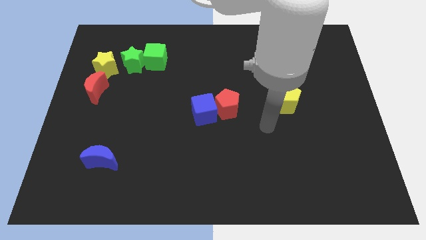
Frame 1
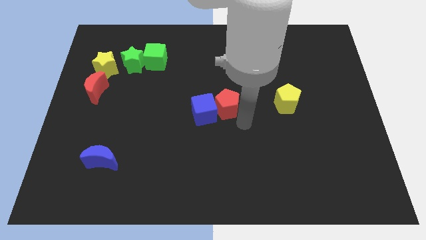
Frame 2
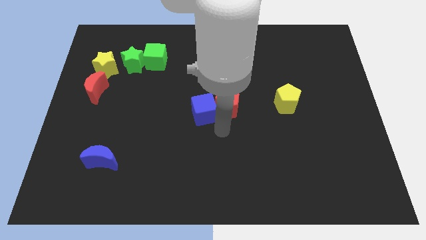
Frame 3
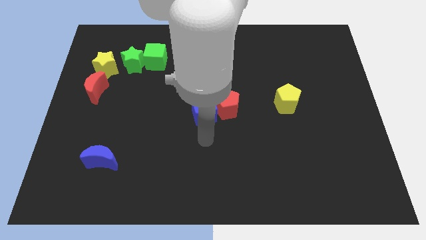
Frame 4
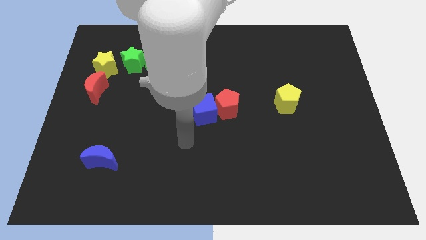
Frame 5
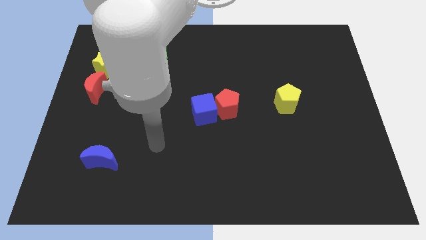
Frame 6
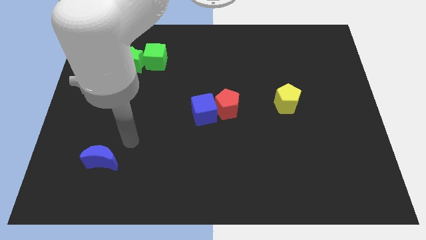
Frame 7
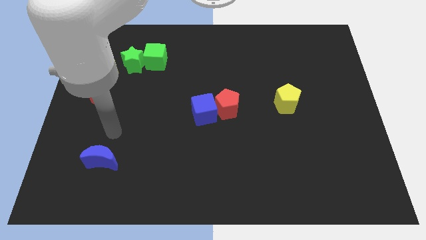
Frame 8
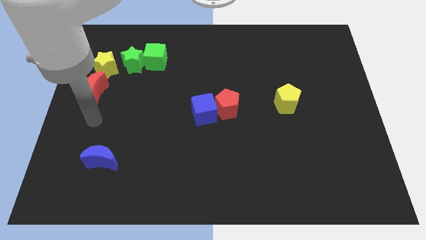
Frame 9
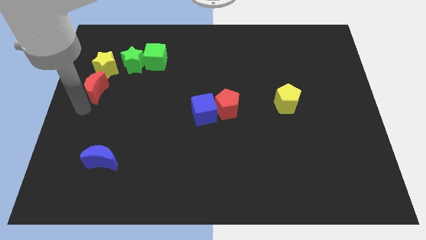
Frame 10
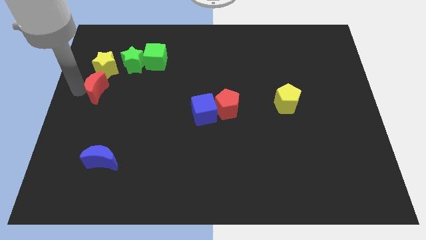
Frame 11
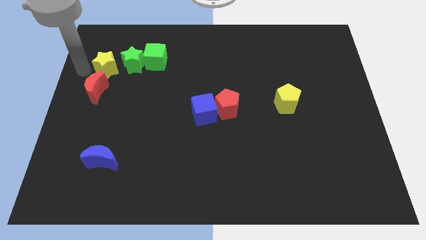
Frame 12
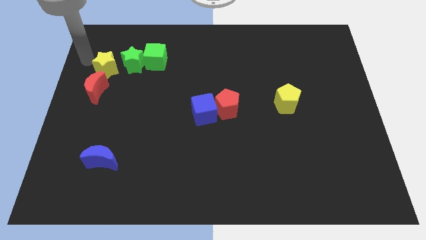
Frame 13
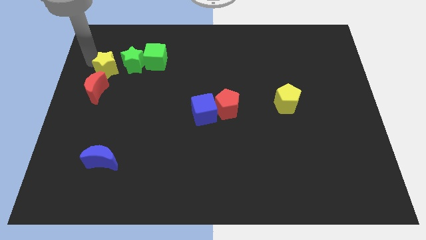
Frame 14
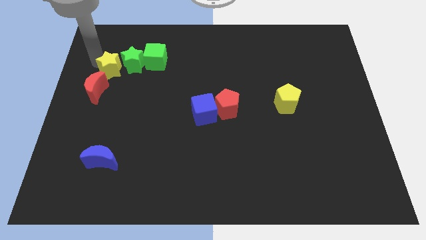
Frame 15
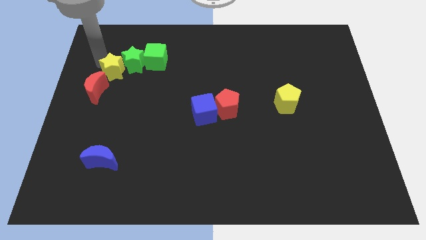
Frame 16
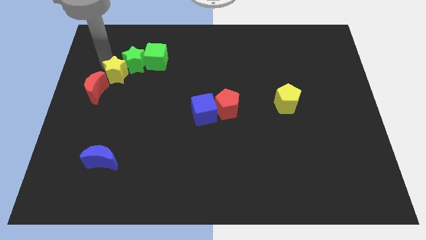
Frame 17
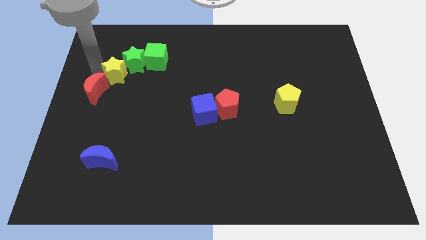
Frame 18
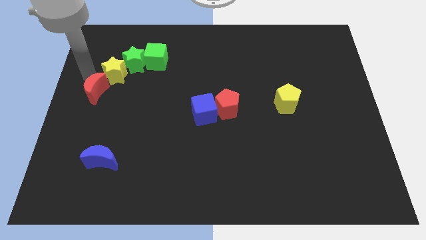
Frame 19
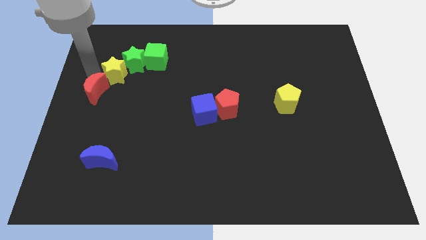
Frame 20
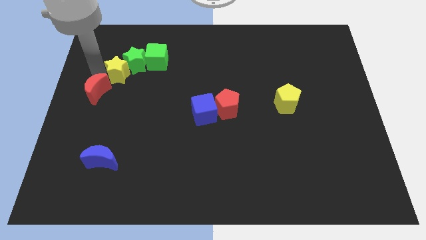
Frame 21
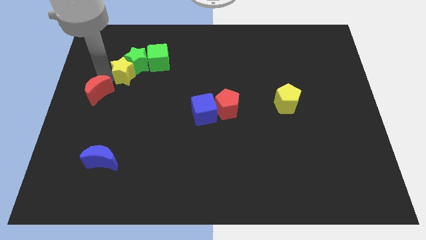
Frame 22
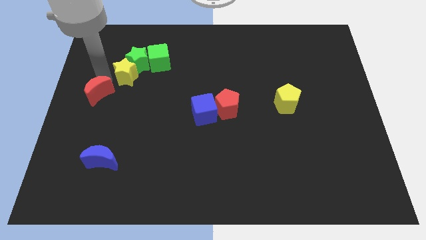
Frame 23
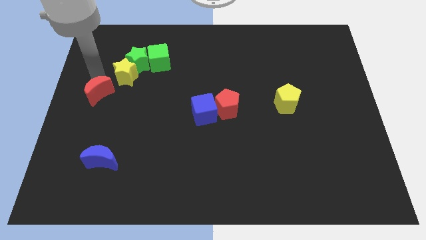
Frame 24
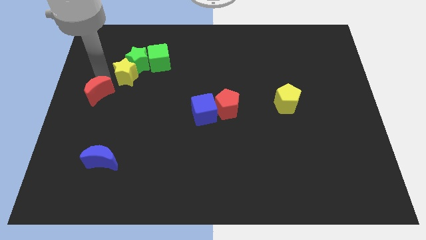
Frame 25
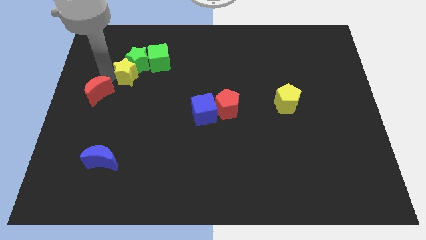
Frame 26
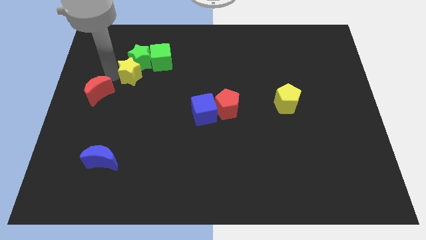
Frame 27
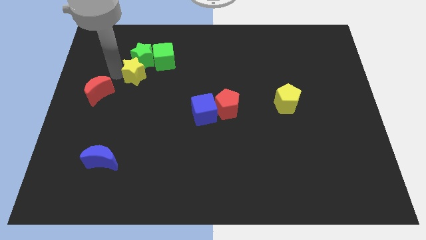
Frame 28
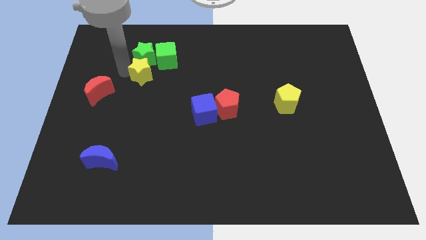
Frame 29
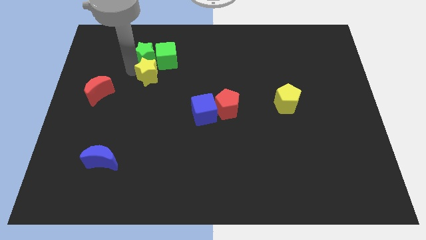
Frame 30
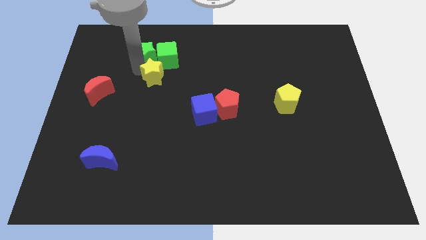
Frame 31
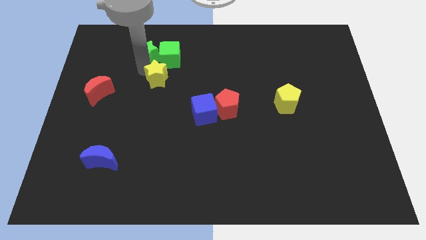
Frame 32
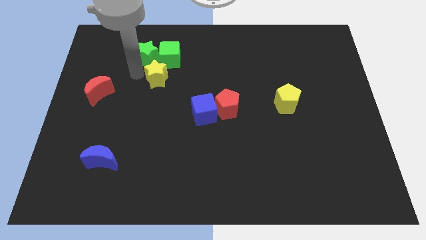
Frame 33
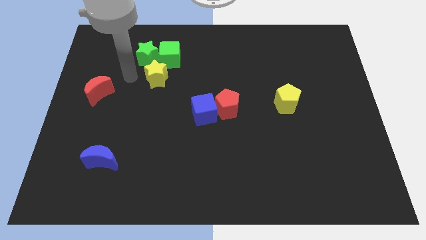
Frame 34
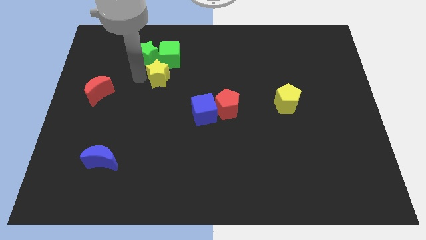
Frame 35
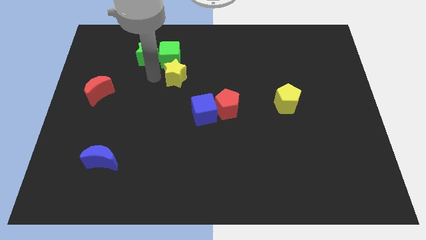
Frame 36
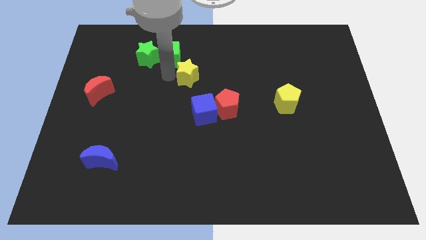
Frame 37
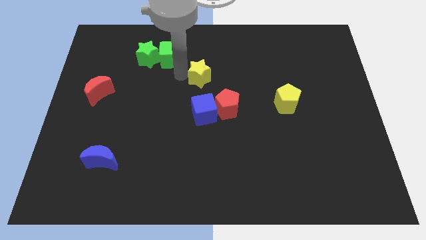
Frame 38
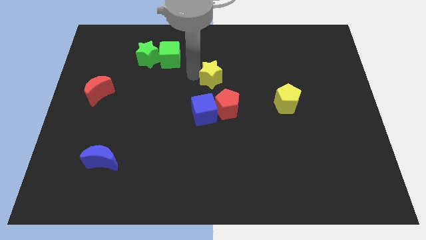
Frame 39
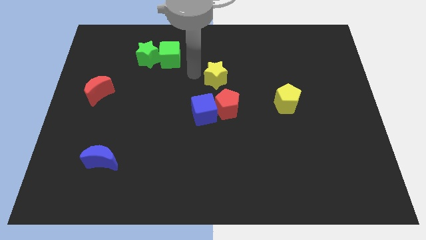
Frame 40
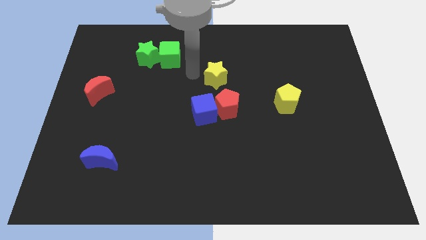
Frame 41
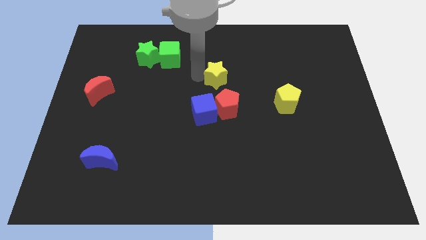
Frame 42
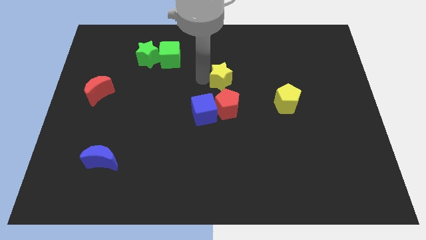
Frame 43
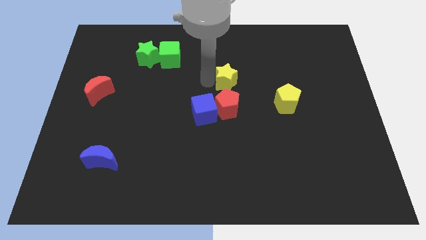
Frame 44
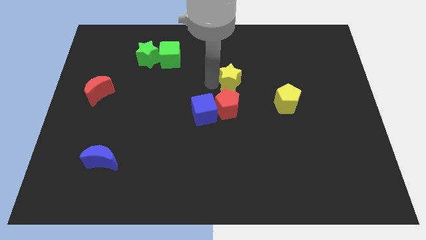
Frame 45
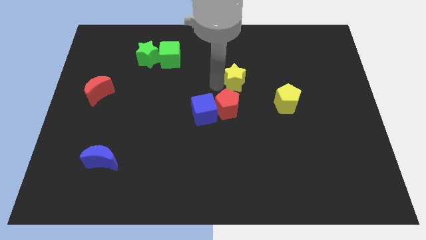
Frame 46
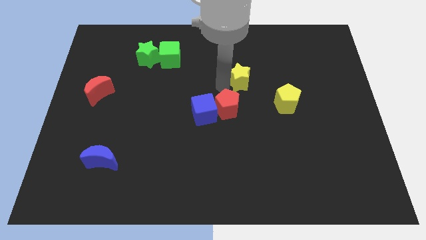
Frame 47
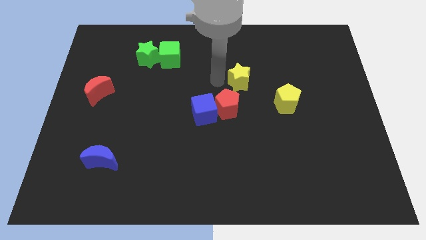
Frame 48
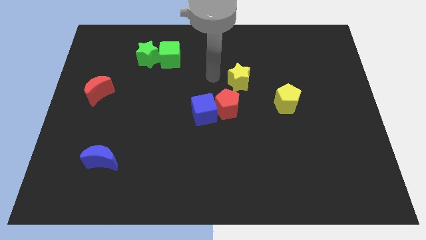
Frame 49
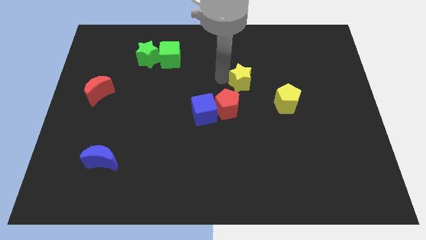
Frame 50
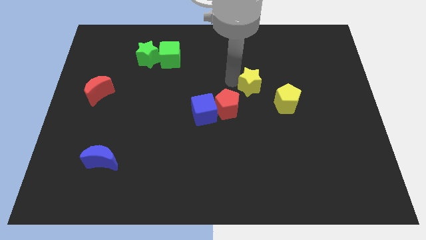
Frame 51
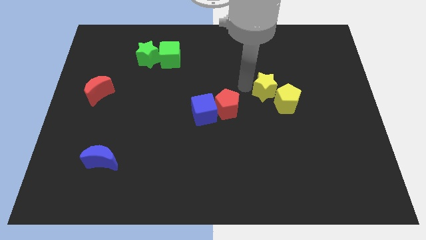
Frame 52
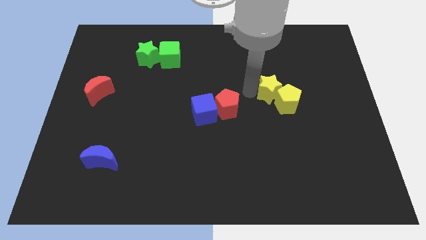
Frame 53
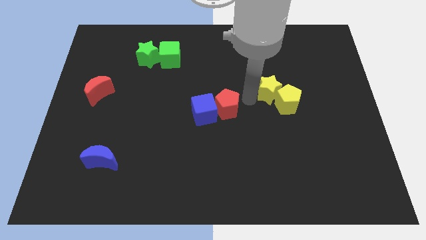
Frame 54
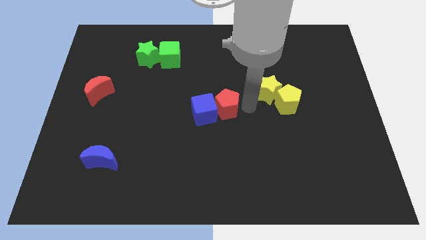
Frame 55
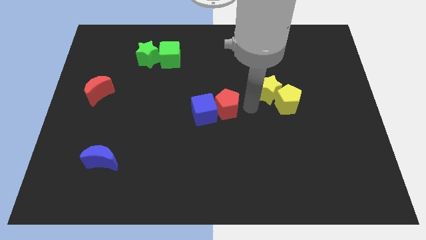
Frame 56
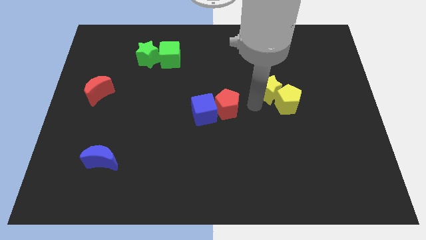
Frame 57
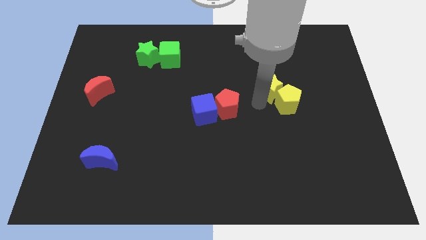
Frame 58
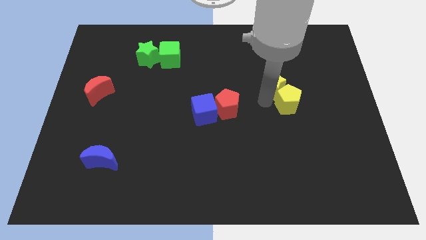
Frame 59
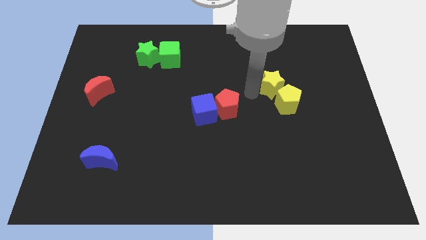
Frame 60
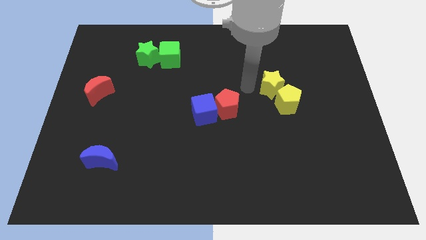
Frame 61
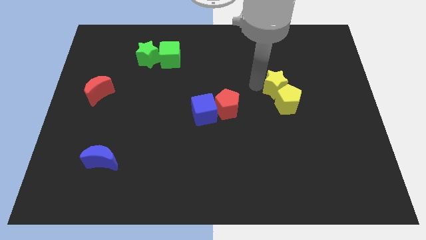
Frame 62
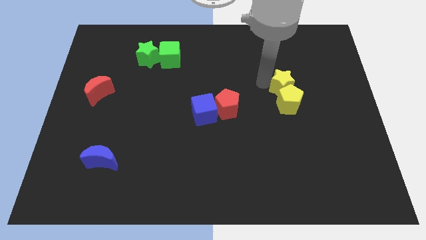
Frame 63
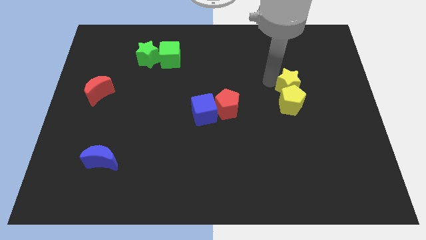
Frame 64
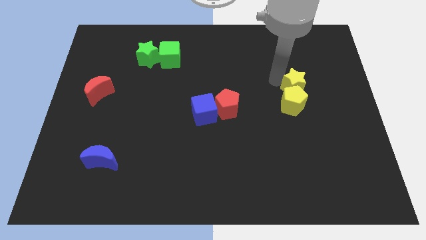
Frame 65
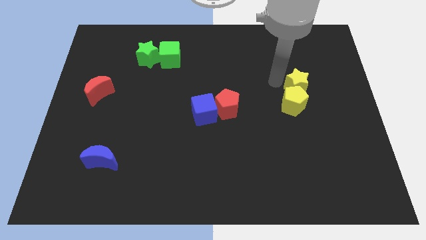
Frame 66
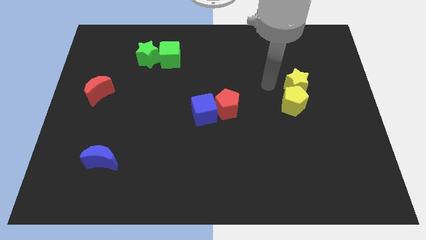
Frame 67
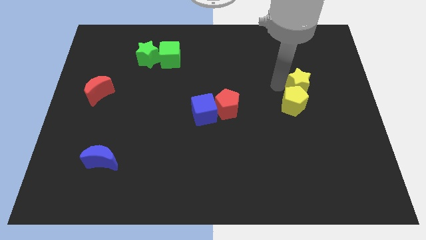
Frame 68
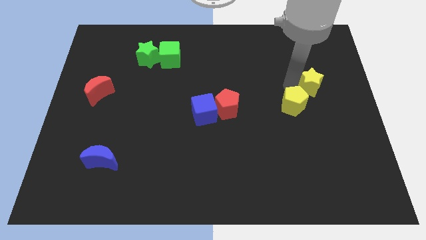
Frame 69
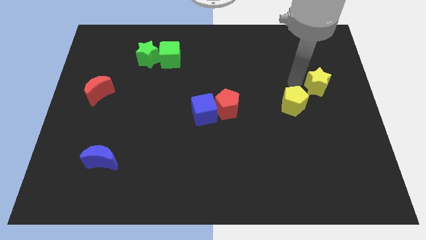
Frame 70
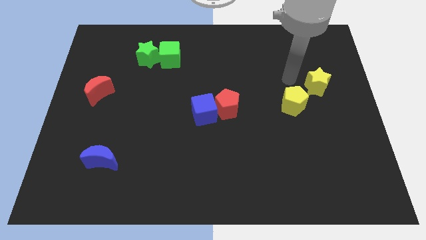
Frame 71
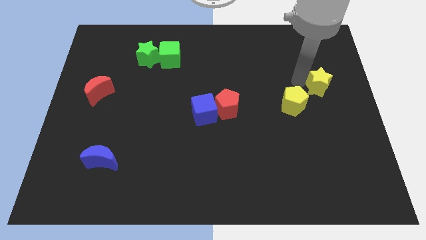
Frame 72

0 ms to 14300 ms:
push the yellow star to the center right

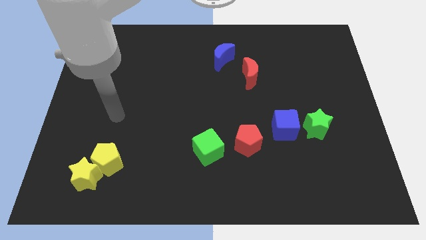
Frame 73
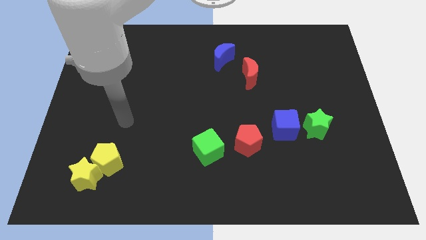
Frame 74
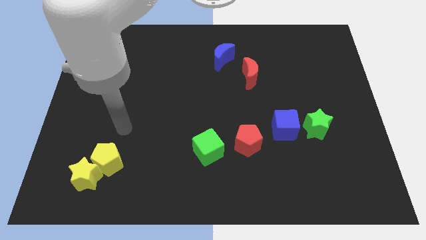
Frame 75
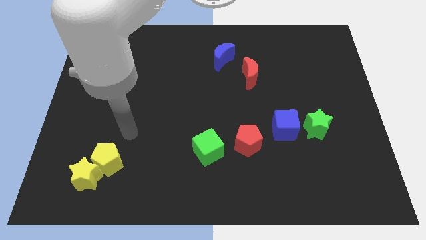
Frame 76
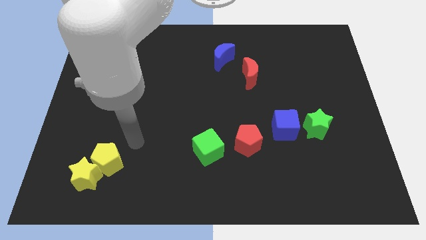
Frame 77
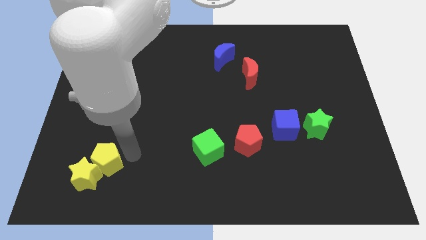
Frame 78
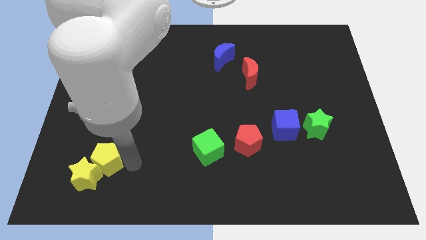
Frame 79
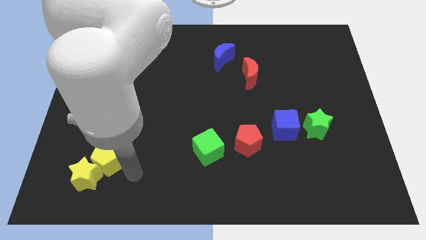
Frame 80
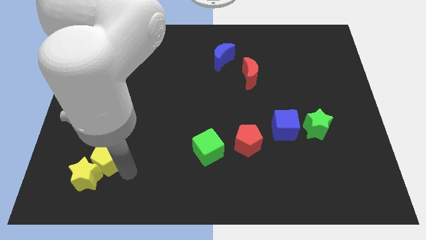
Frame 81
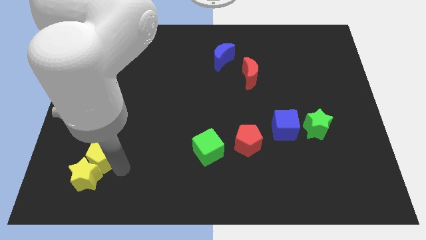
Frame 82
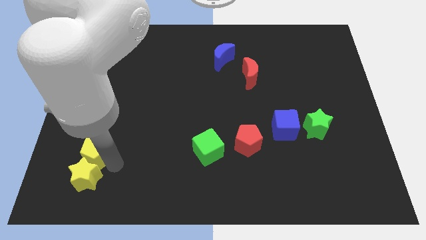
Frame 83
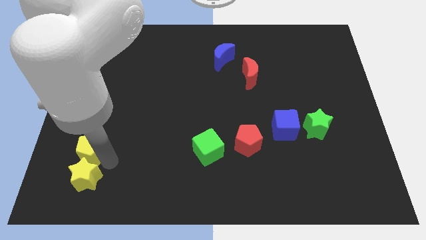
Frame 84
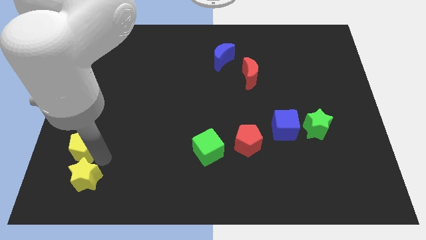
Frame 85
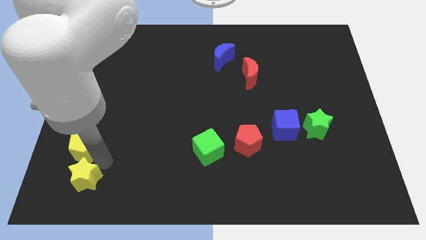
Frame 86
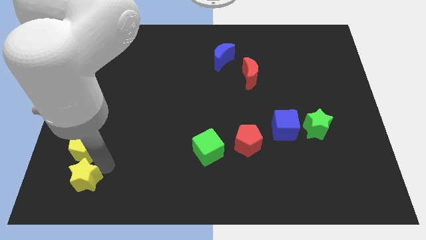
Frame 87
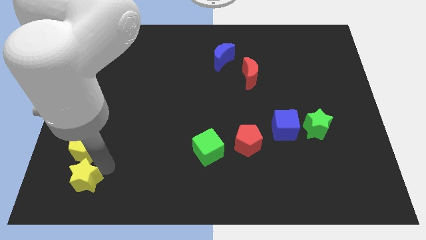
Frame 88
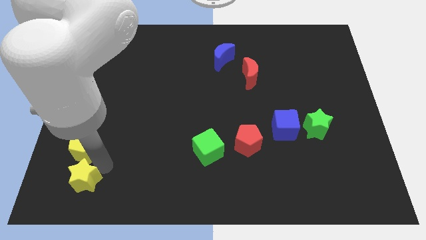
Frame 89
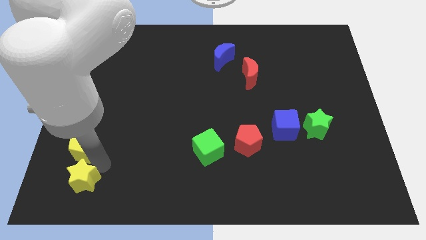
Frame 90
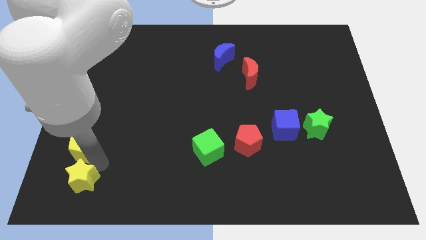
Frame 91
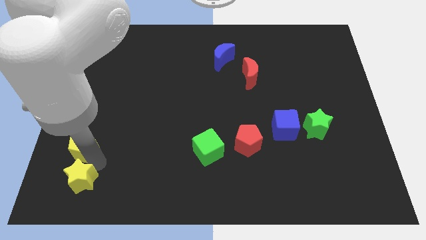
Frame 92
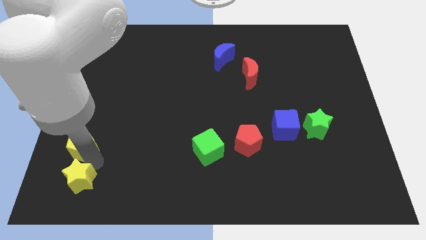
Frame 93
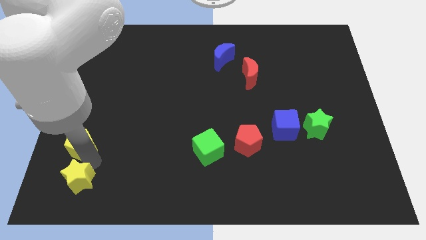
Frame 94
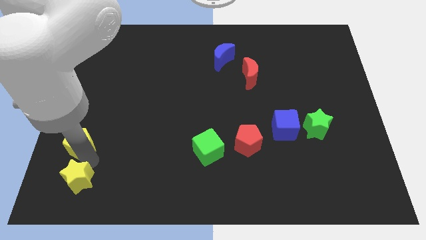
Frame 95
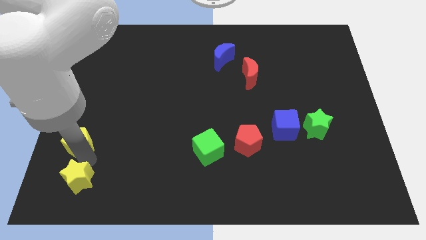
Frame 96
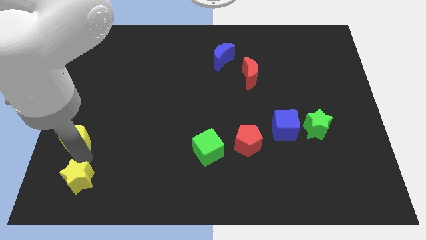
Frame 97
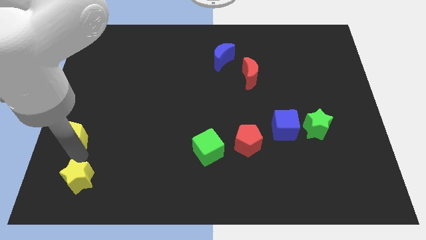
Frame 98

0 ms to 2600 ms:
move the yellow pentagon to the center left
